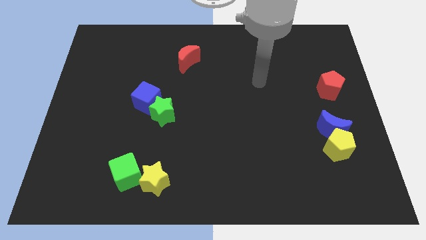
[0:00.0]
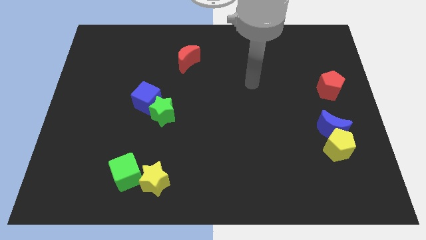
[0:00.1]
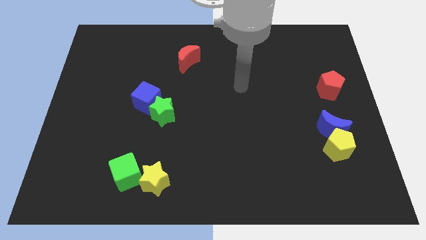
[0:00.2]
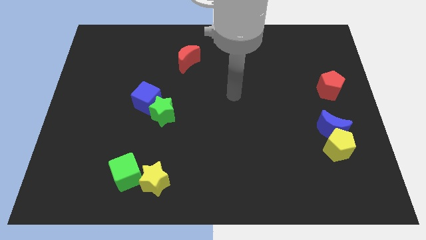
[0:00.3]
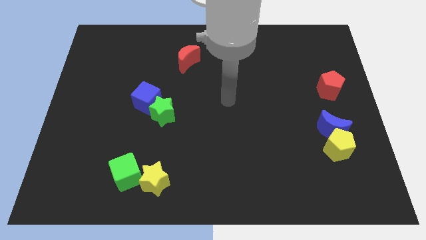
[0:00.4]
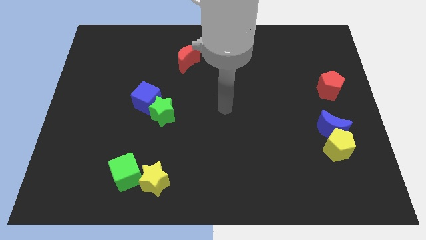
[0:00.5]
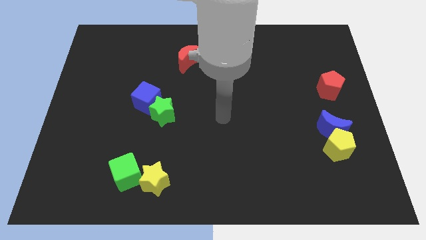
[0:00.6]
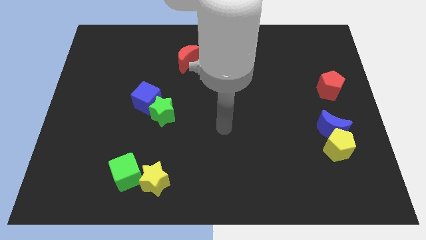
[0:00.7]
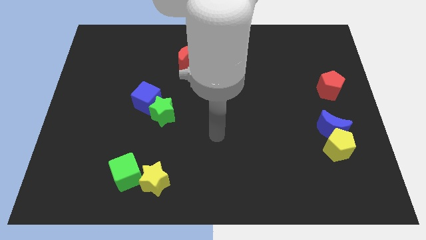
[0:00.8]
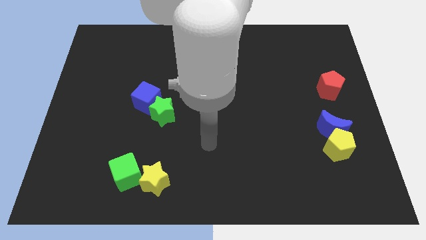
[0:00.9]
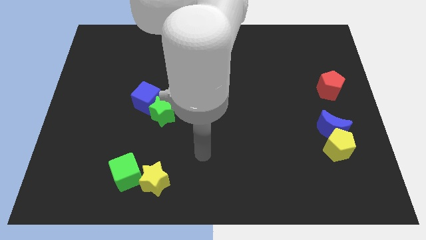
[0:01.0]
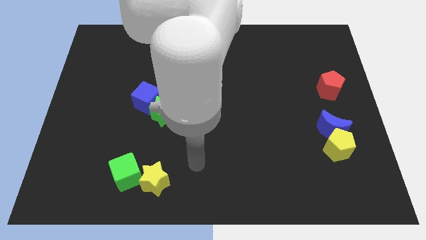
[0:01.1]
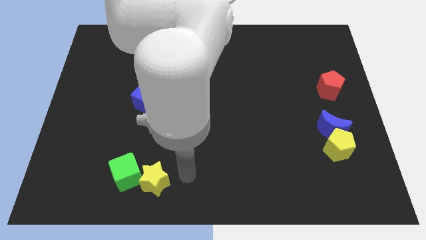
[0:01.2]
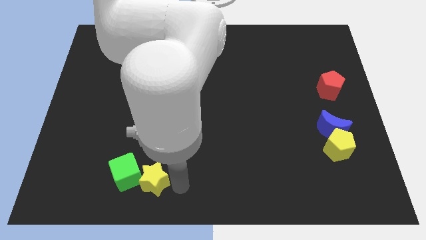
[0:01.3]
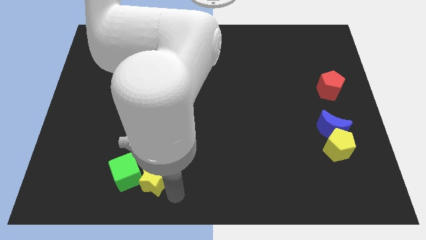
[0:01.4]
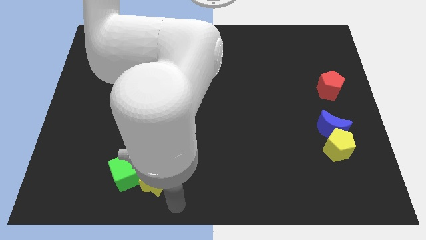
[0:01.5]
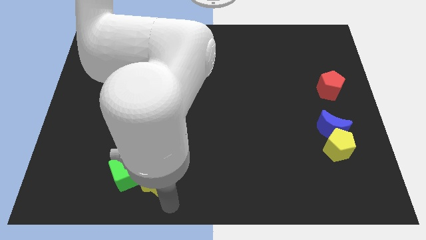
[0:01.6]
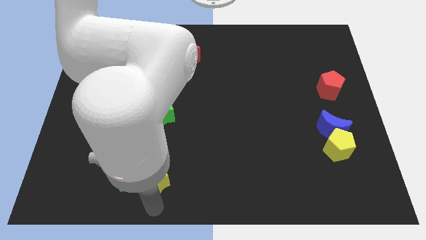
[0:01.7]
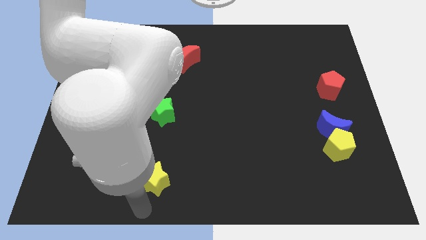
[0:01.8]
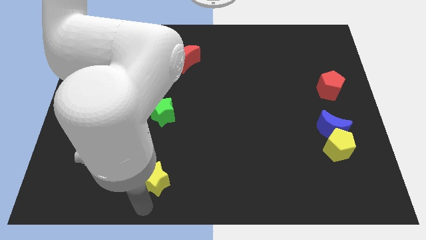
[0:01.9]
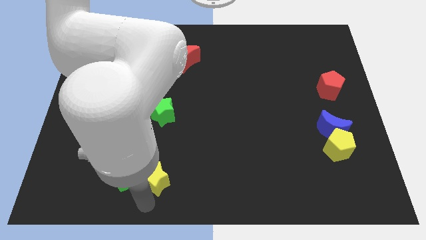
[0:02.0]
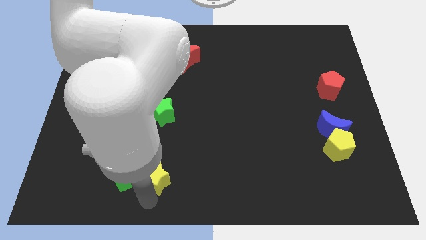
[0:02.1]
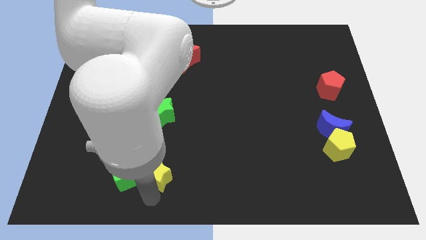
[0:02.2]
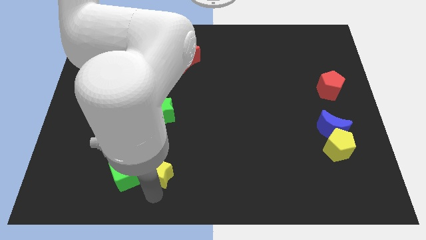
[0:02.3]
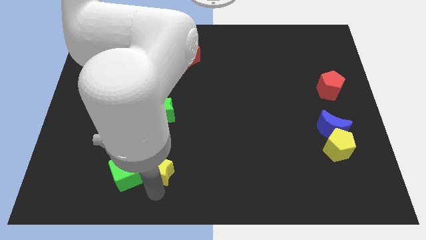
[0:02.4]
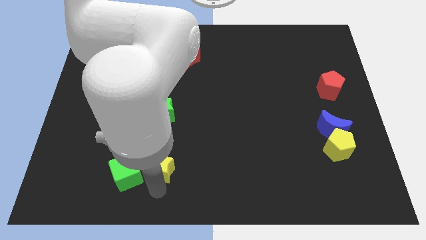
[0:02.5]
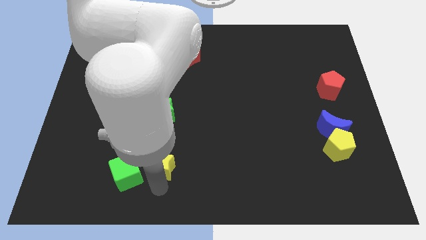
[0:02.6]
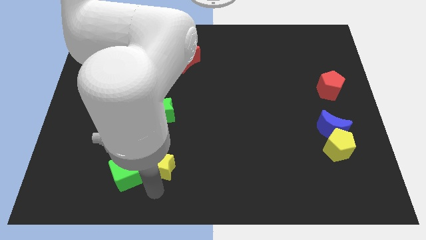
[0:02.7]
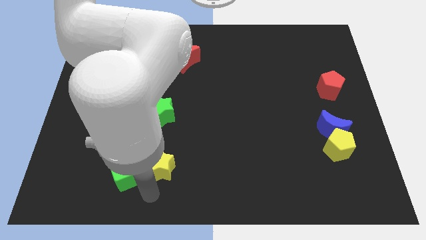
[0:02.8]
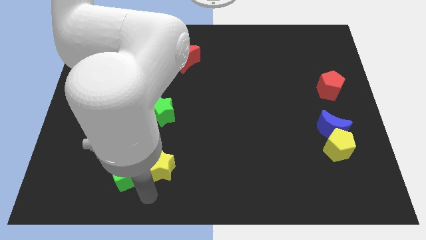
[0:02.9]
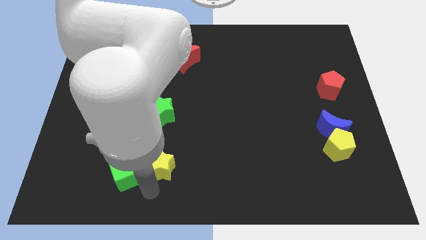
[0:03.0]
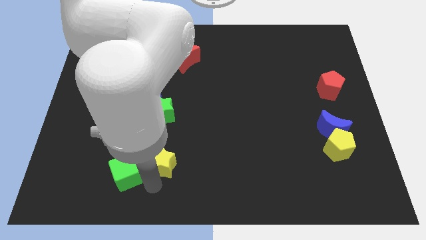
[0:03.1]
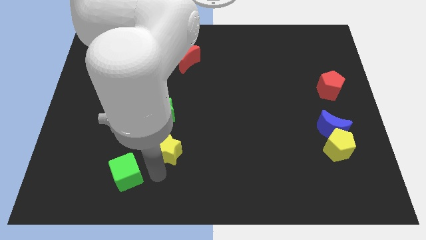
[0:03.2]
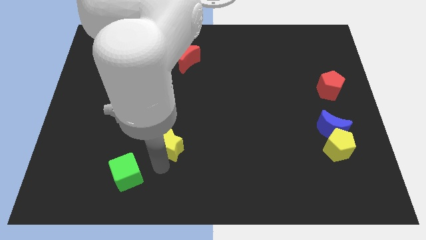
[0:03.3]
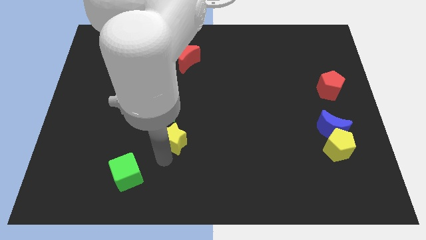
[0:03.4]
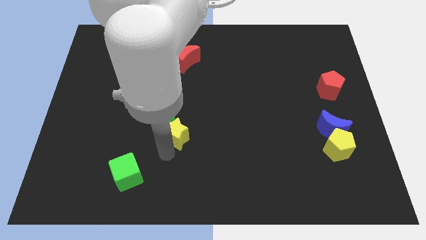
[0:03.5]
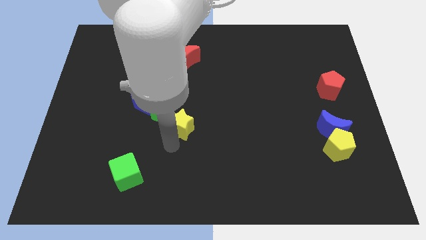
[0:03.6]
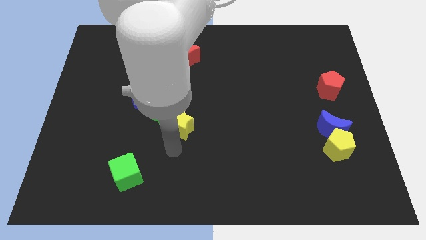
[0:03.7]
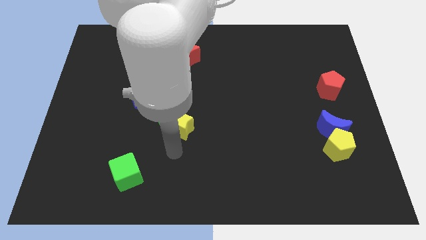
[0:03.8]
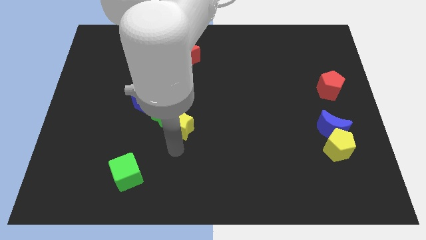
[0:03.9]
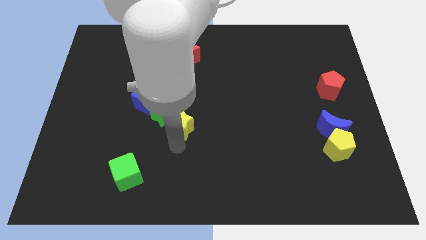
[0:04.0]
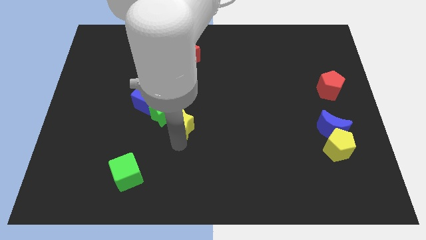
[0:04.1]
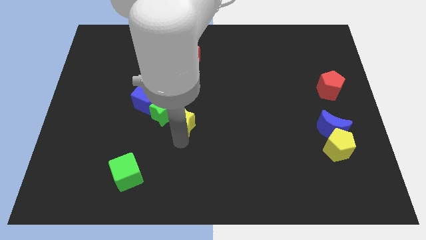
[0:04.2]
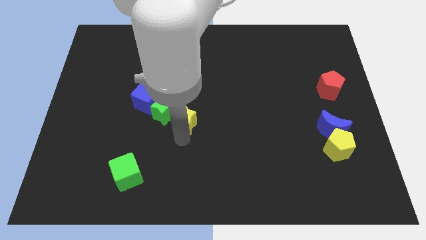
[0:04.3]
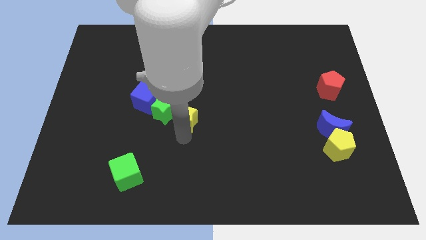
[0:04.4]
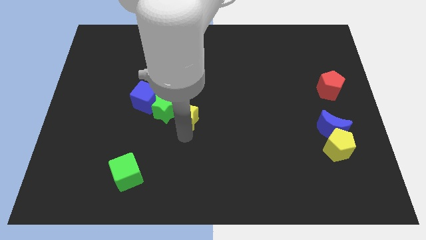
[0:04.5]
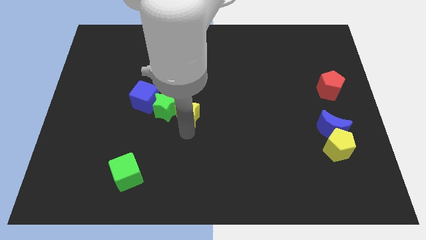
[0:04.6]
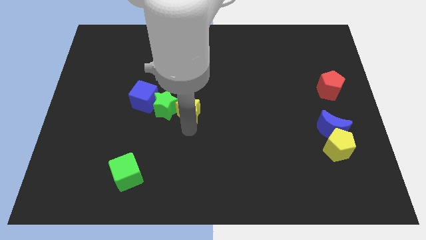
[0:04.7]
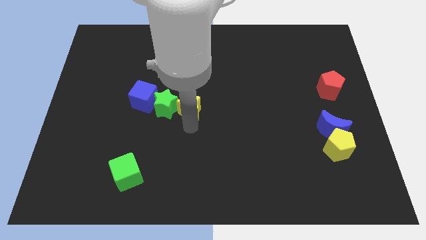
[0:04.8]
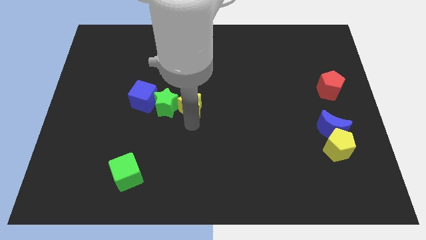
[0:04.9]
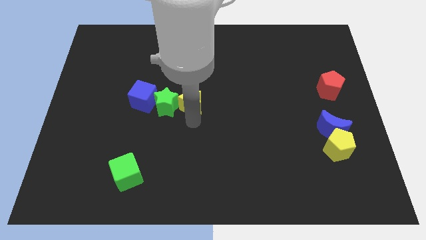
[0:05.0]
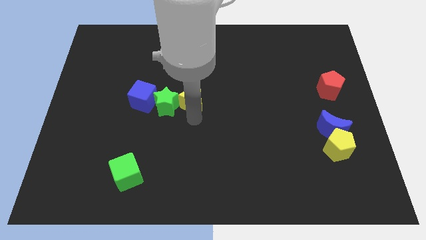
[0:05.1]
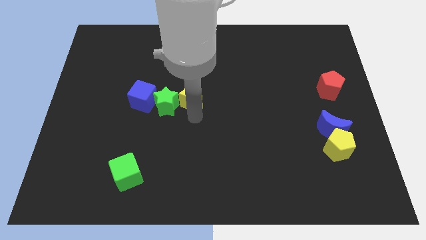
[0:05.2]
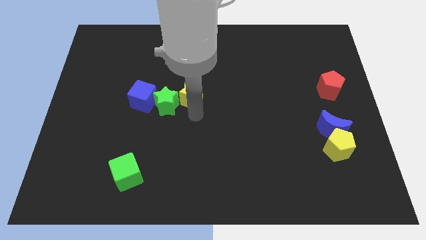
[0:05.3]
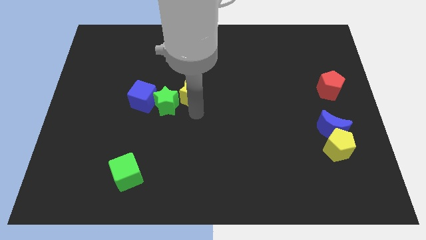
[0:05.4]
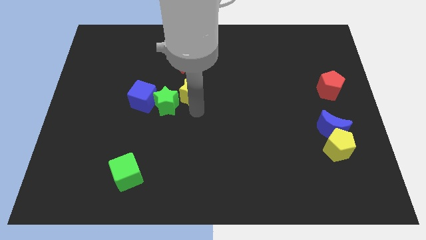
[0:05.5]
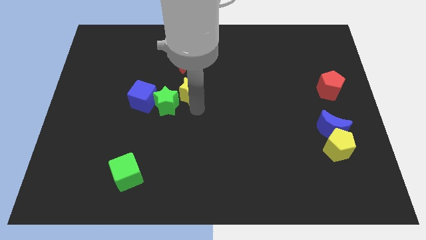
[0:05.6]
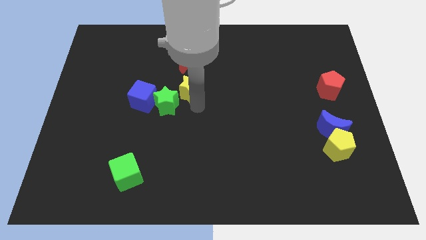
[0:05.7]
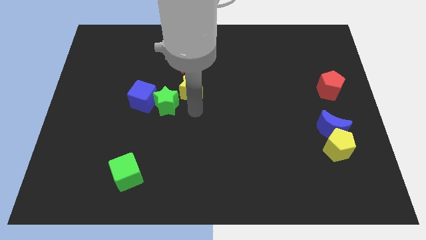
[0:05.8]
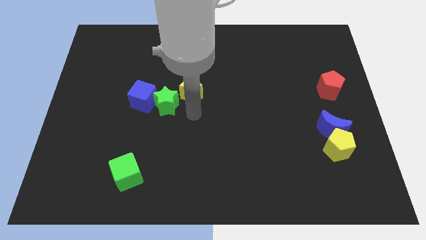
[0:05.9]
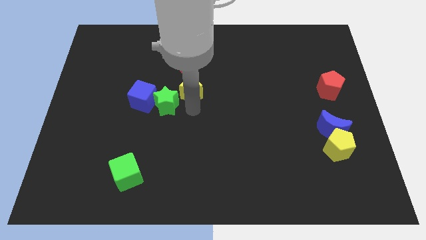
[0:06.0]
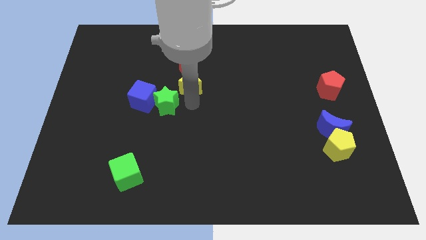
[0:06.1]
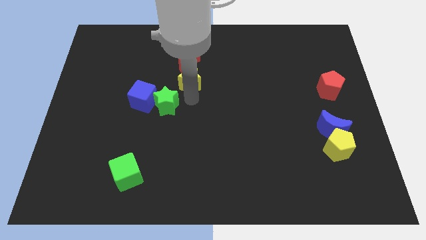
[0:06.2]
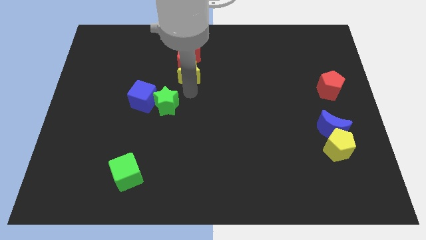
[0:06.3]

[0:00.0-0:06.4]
slide the yellow star to the red moon
